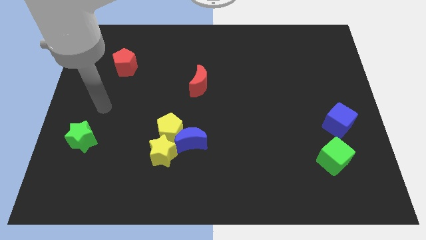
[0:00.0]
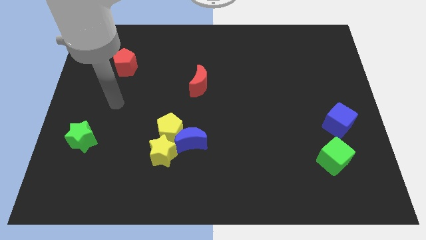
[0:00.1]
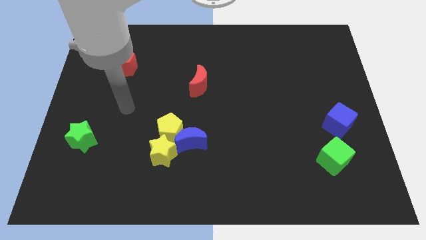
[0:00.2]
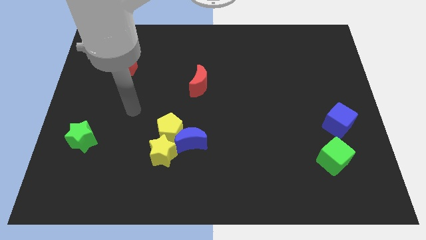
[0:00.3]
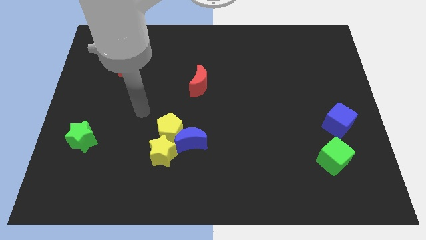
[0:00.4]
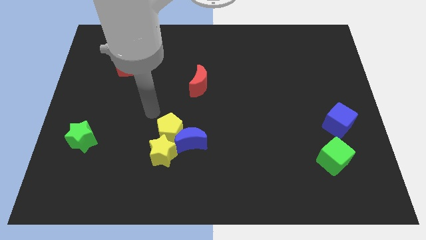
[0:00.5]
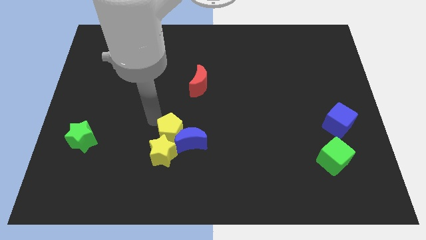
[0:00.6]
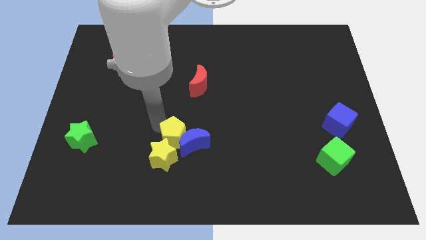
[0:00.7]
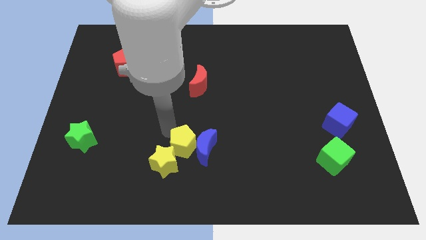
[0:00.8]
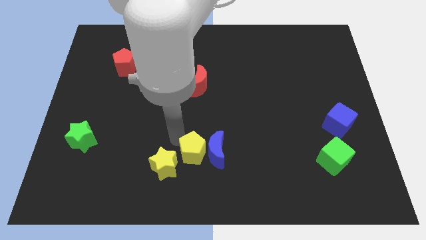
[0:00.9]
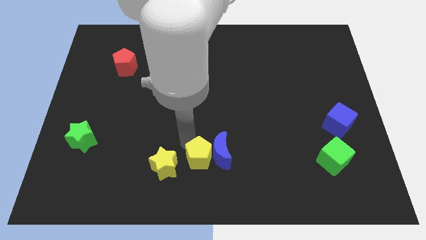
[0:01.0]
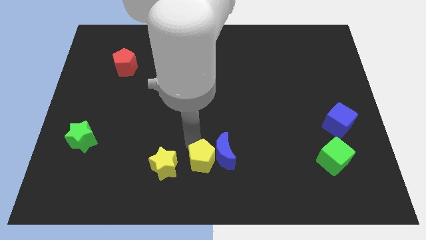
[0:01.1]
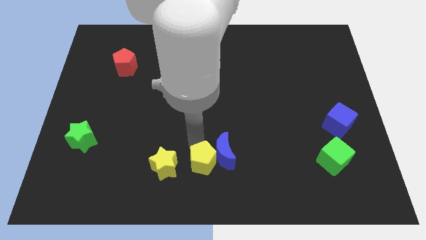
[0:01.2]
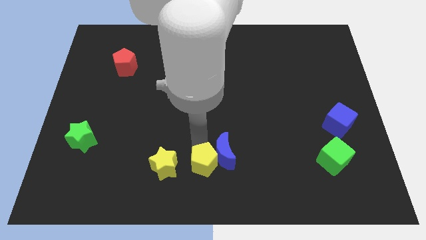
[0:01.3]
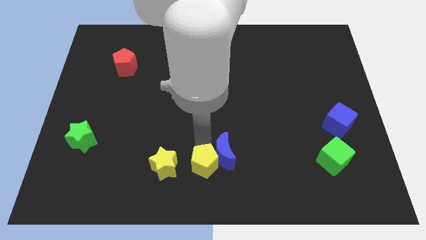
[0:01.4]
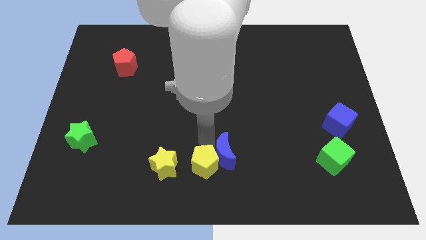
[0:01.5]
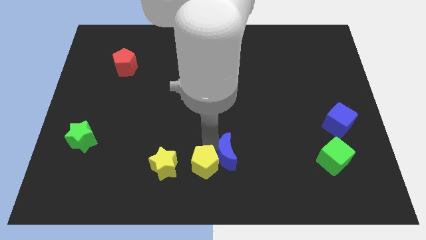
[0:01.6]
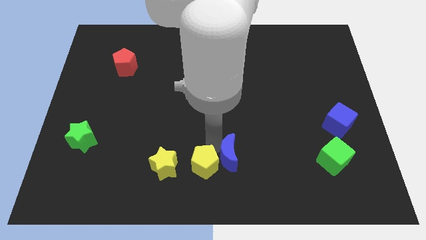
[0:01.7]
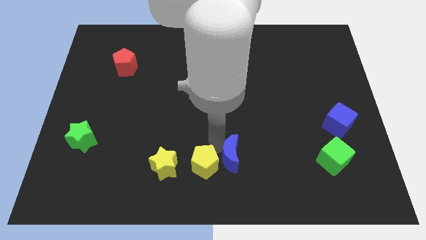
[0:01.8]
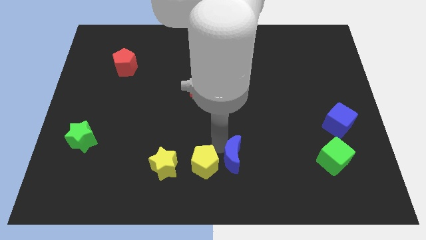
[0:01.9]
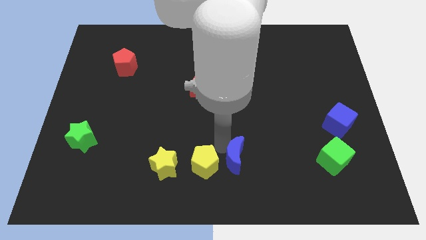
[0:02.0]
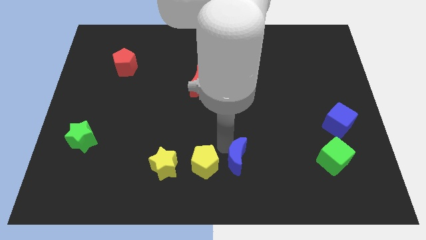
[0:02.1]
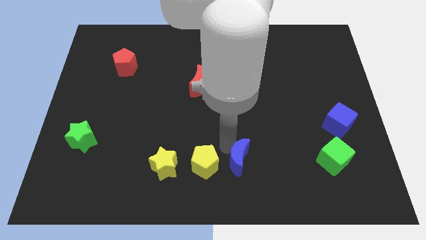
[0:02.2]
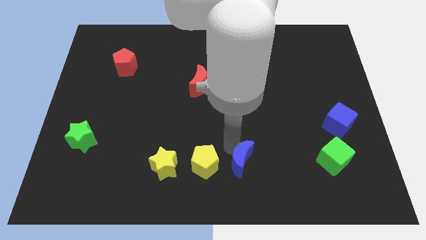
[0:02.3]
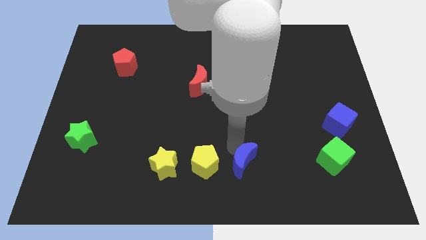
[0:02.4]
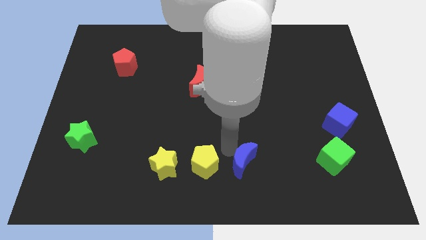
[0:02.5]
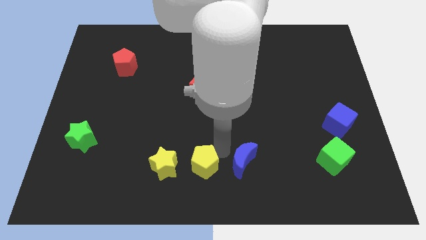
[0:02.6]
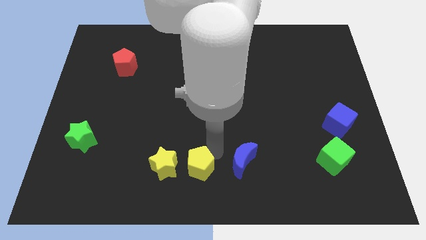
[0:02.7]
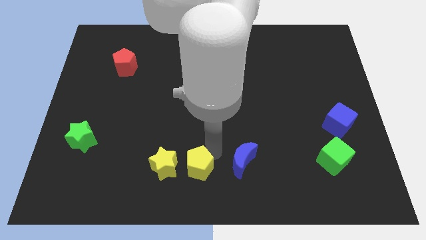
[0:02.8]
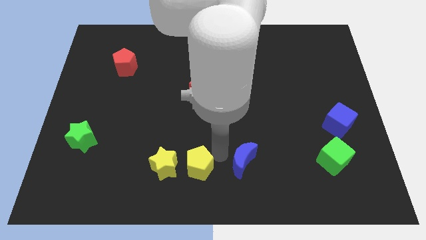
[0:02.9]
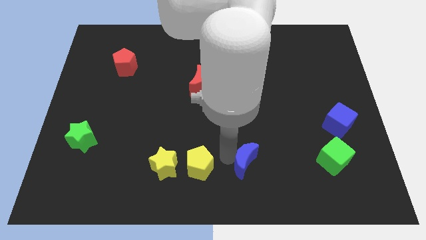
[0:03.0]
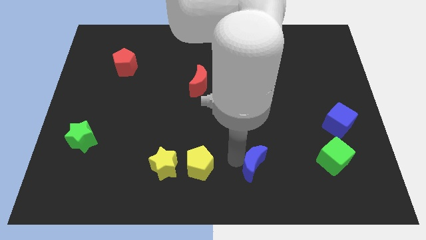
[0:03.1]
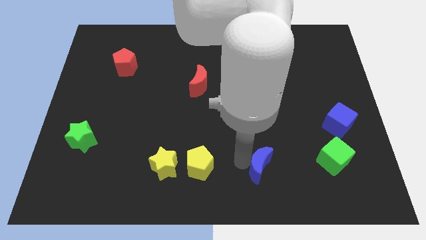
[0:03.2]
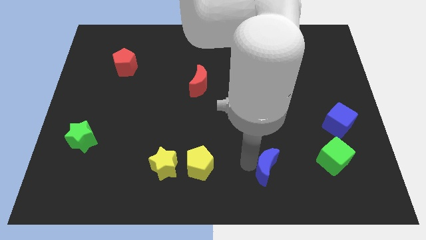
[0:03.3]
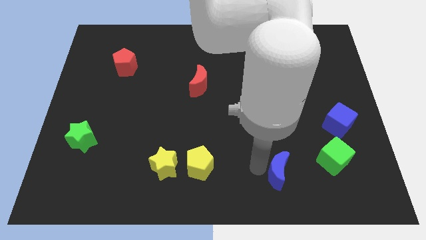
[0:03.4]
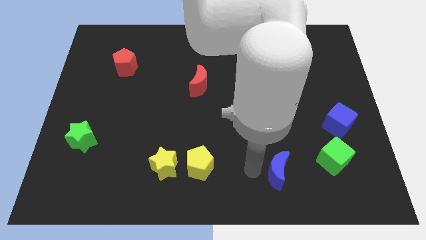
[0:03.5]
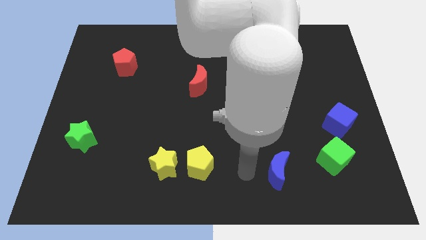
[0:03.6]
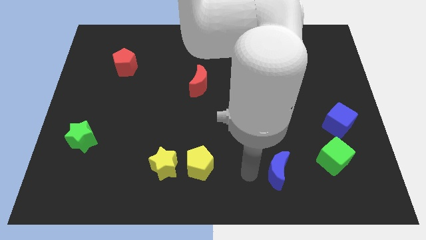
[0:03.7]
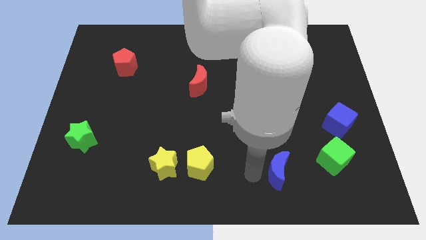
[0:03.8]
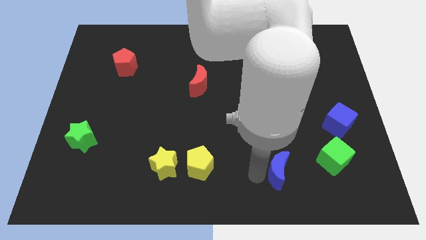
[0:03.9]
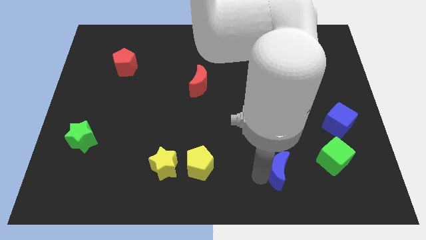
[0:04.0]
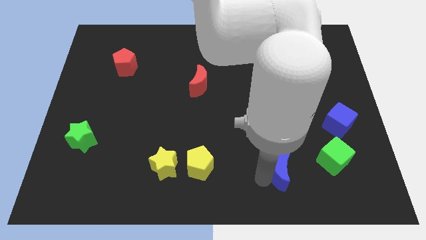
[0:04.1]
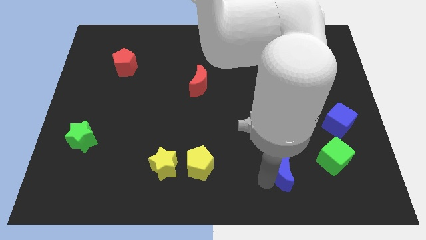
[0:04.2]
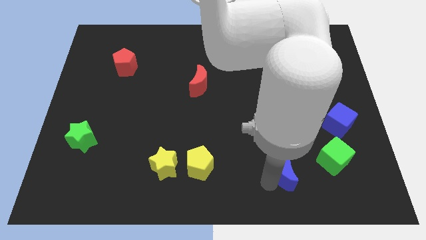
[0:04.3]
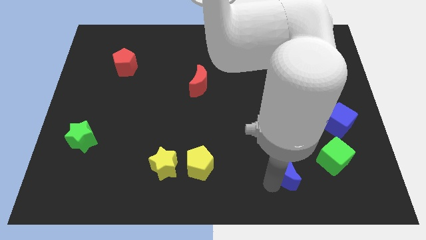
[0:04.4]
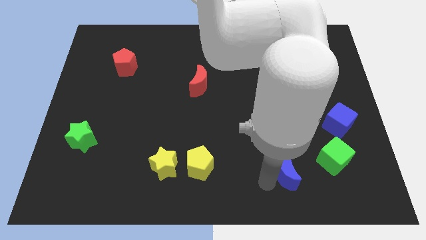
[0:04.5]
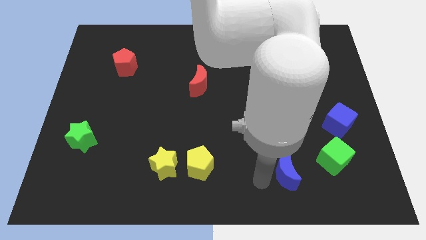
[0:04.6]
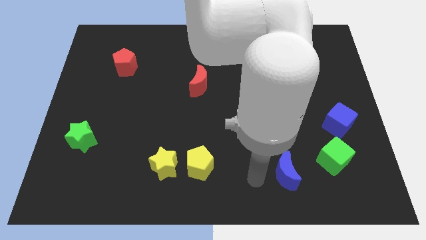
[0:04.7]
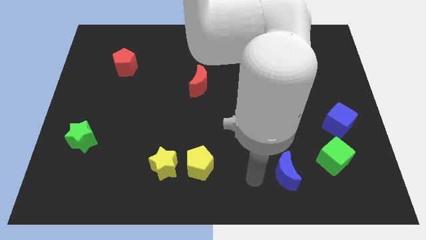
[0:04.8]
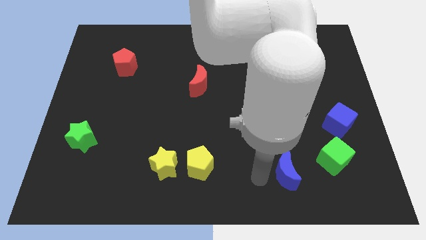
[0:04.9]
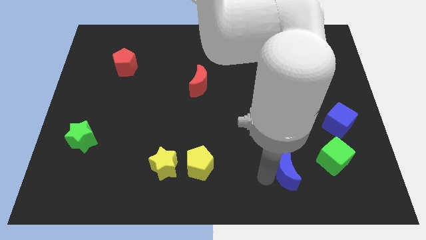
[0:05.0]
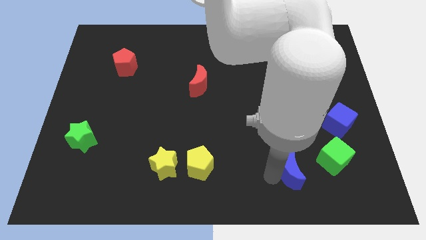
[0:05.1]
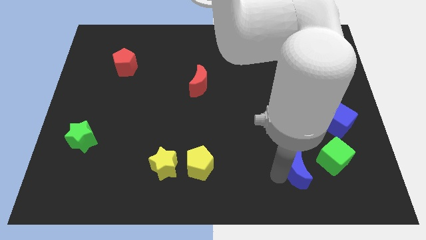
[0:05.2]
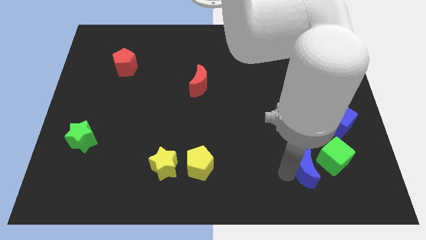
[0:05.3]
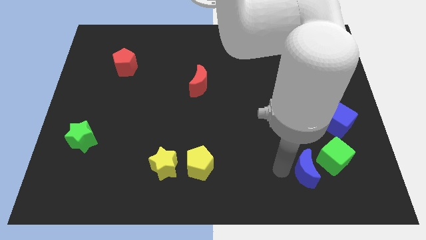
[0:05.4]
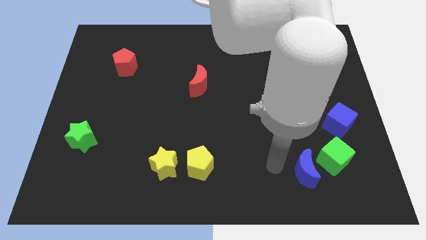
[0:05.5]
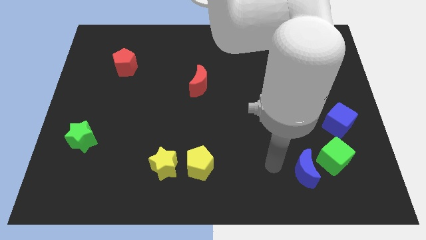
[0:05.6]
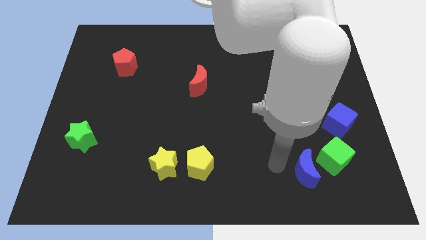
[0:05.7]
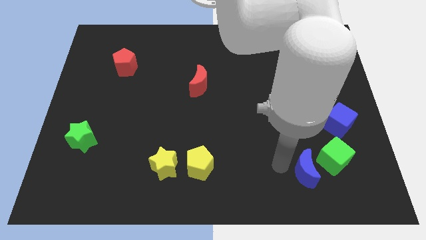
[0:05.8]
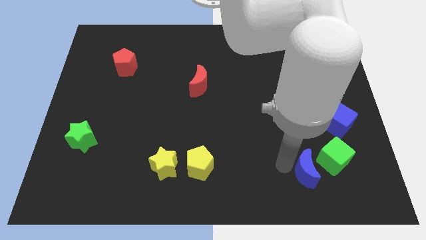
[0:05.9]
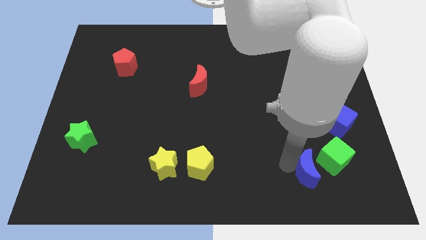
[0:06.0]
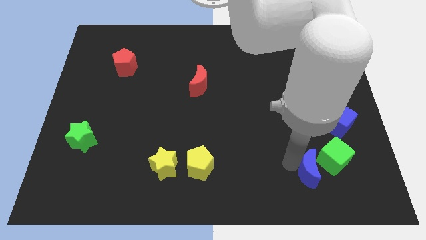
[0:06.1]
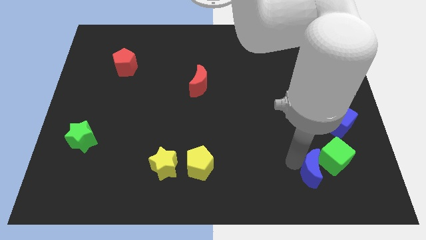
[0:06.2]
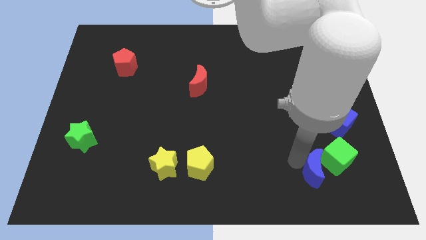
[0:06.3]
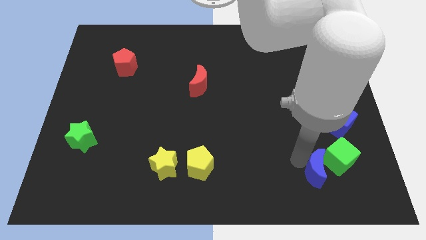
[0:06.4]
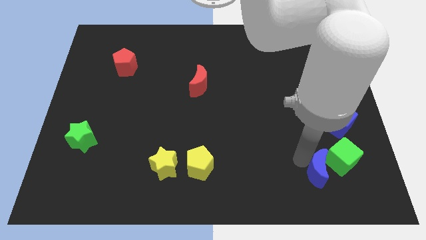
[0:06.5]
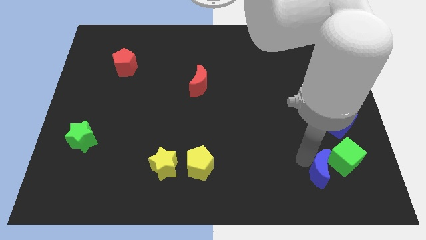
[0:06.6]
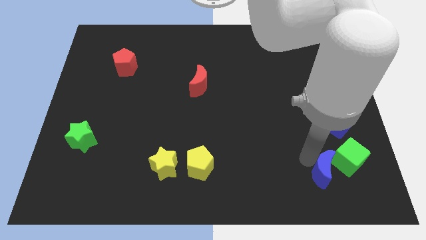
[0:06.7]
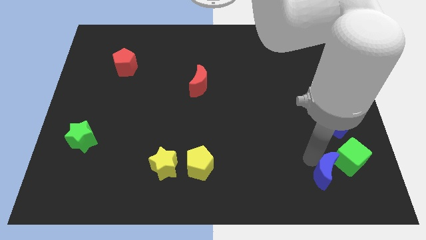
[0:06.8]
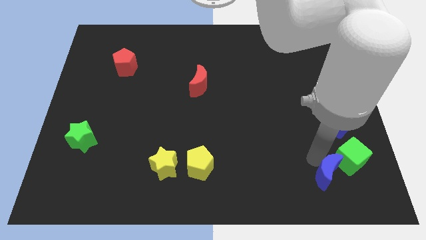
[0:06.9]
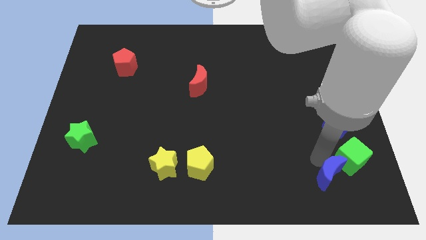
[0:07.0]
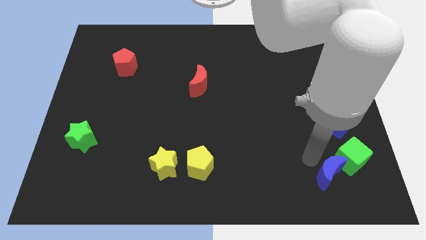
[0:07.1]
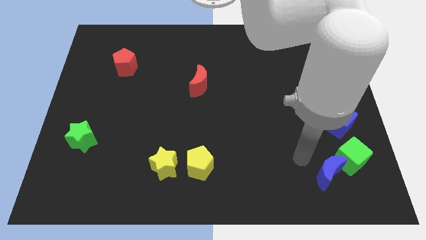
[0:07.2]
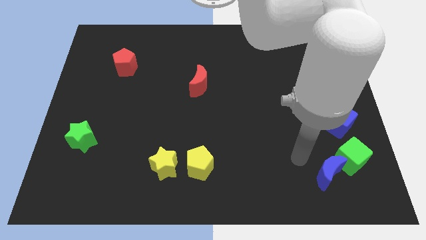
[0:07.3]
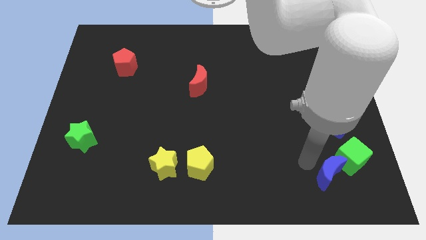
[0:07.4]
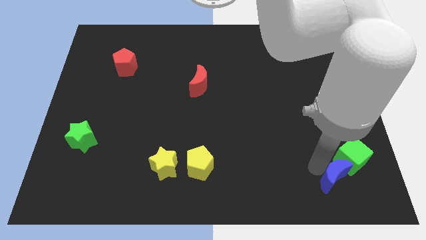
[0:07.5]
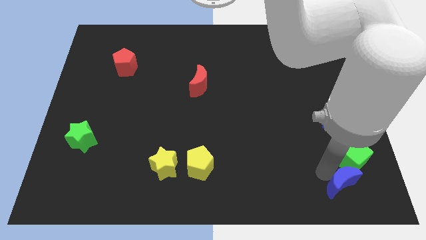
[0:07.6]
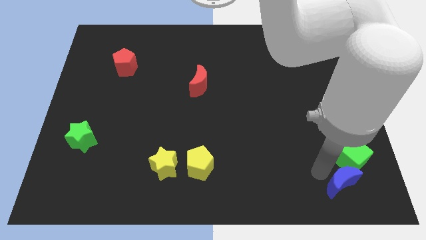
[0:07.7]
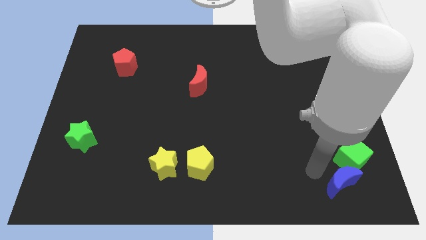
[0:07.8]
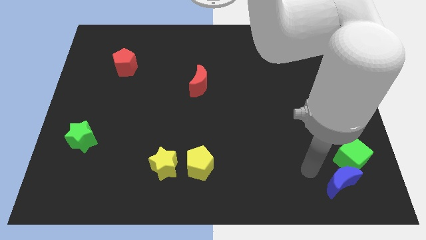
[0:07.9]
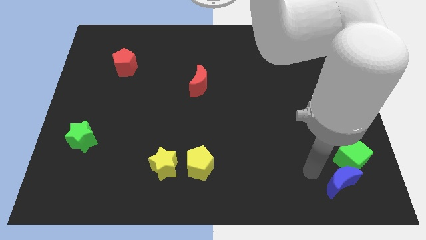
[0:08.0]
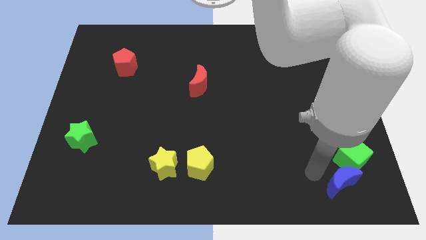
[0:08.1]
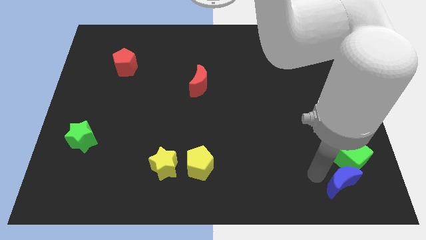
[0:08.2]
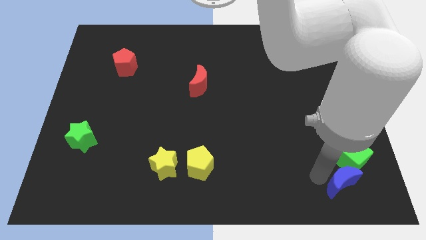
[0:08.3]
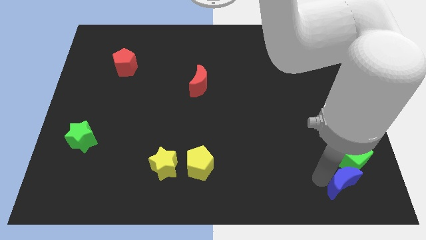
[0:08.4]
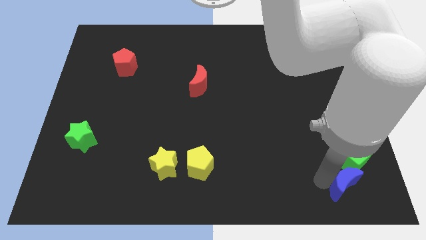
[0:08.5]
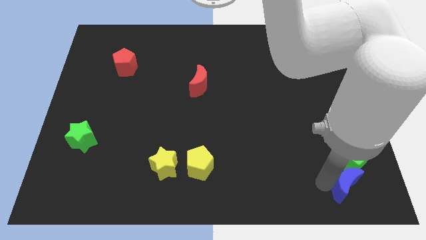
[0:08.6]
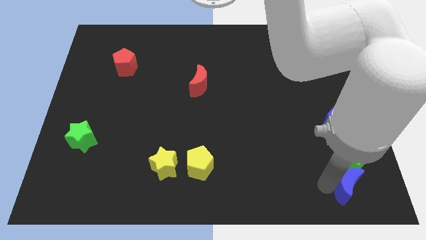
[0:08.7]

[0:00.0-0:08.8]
push the blue moon to the bottom right of the board
